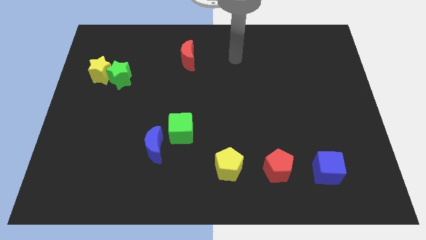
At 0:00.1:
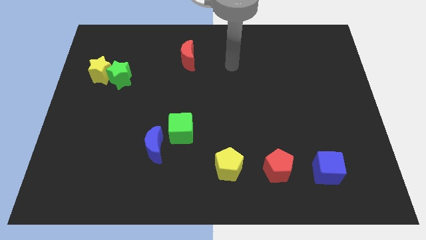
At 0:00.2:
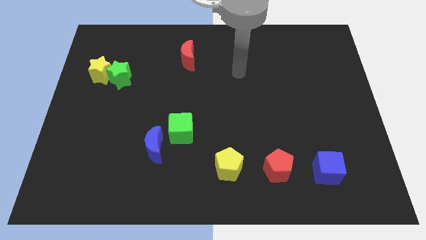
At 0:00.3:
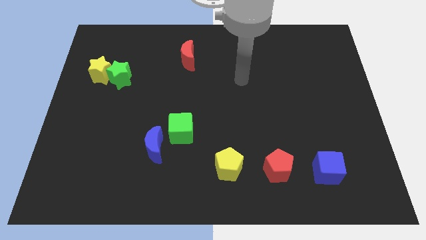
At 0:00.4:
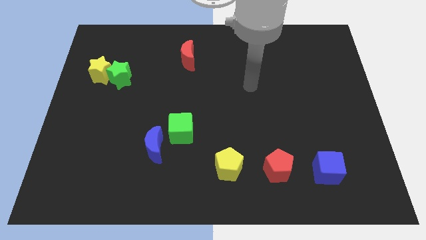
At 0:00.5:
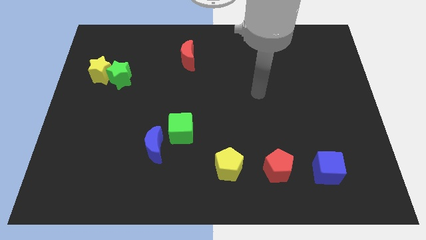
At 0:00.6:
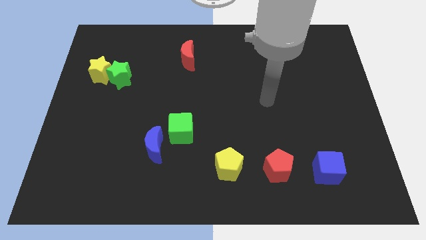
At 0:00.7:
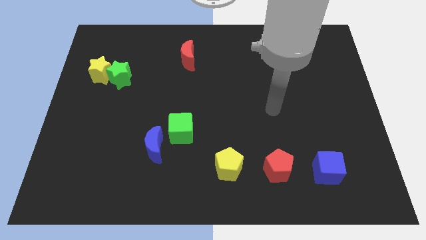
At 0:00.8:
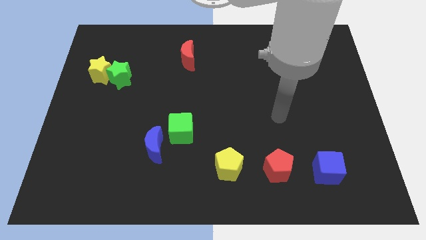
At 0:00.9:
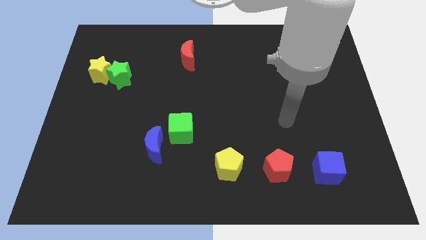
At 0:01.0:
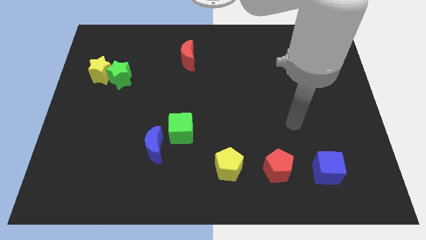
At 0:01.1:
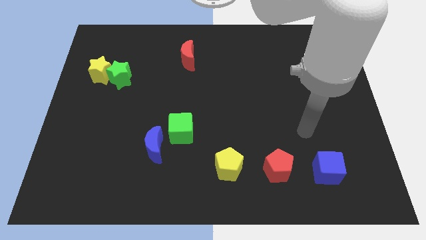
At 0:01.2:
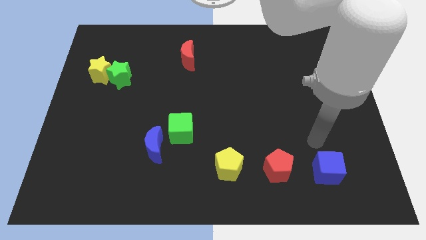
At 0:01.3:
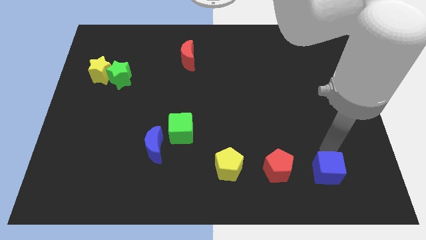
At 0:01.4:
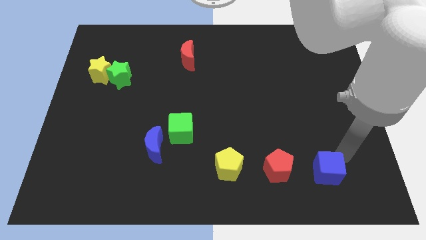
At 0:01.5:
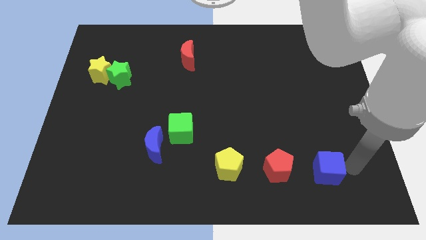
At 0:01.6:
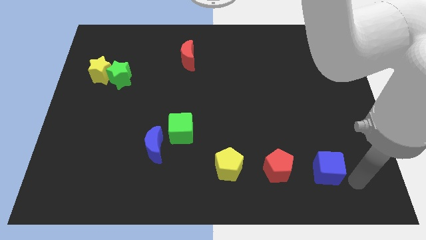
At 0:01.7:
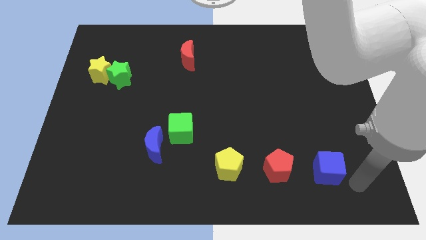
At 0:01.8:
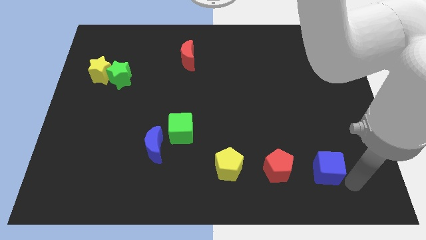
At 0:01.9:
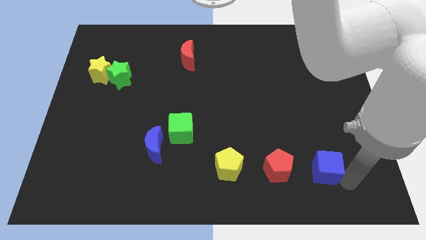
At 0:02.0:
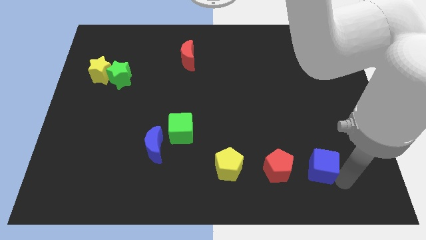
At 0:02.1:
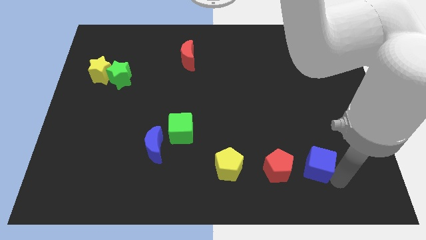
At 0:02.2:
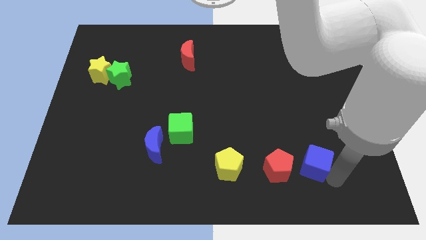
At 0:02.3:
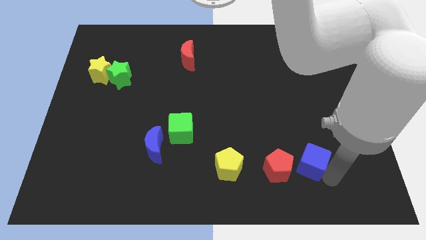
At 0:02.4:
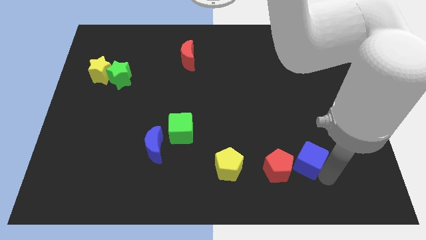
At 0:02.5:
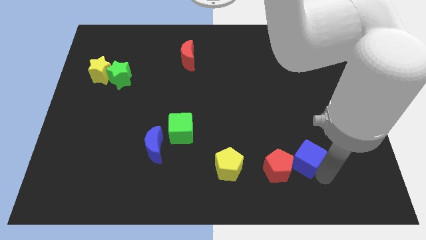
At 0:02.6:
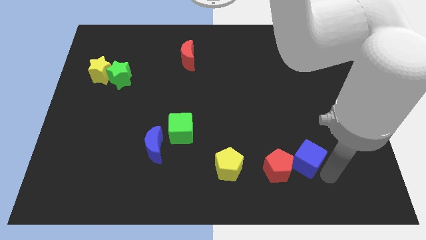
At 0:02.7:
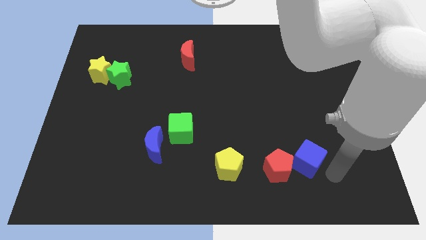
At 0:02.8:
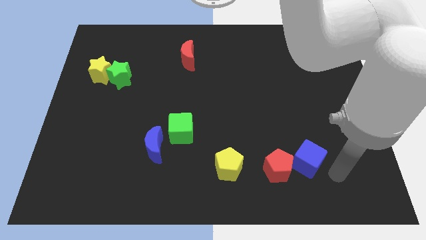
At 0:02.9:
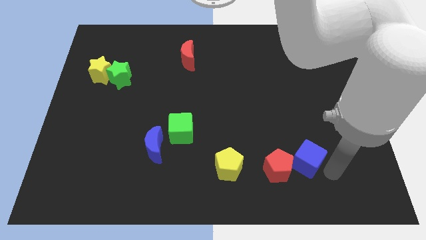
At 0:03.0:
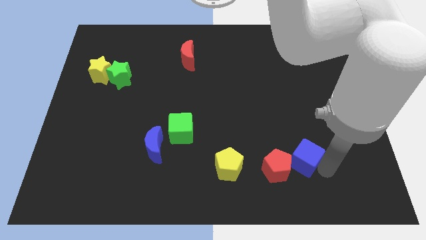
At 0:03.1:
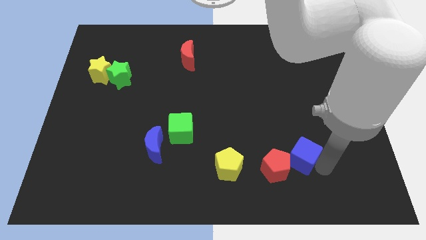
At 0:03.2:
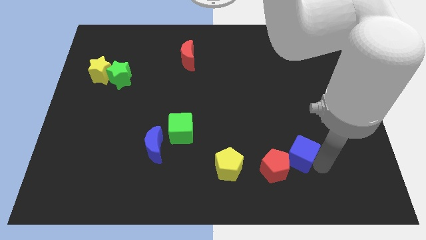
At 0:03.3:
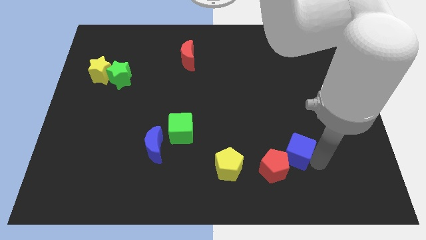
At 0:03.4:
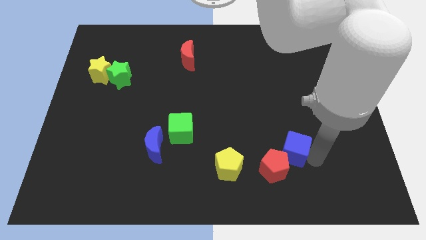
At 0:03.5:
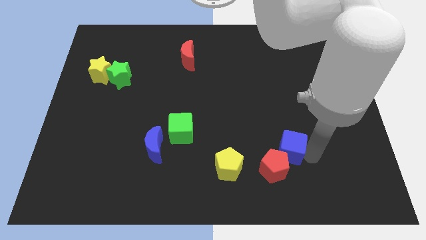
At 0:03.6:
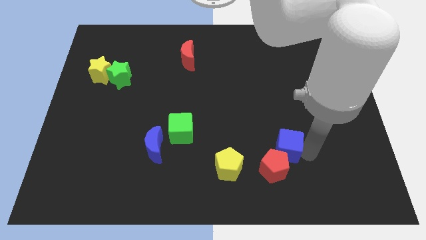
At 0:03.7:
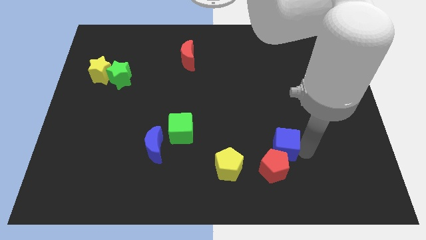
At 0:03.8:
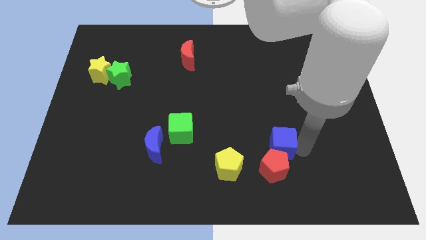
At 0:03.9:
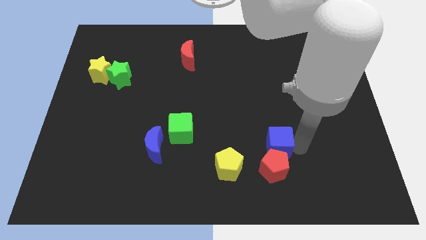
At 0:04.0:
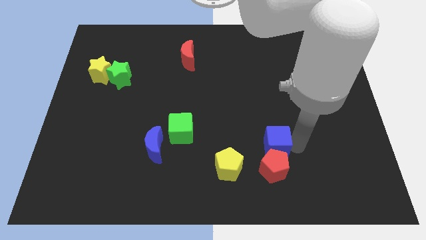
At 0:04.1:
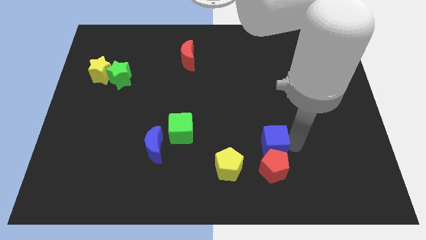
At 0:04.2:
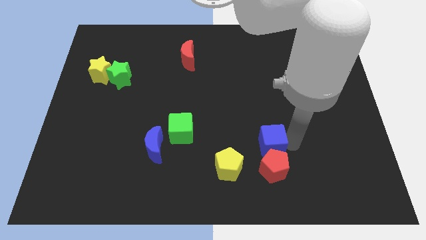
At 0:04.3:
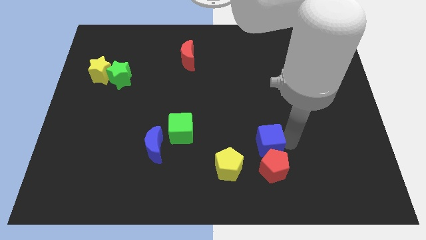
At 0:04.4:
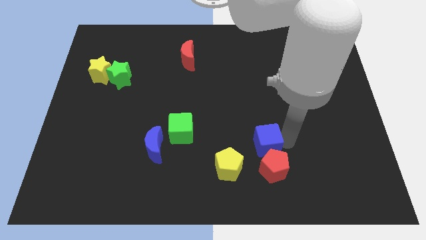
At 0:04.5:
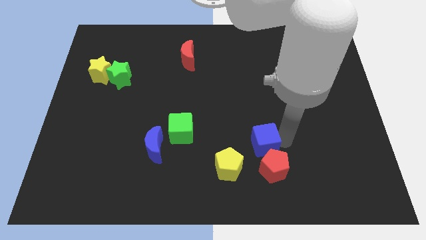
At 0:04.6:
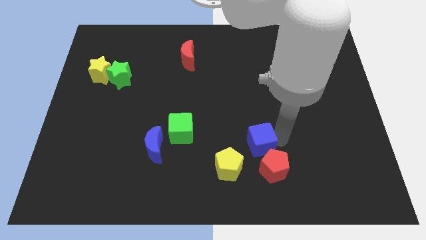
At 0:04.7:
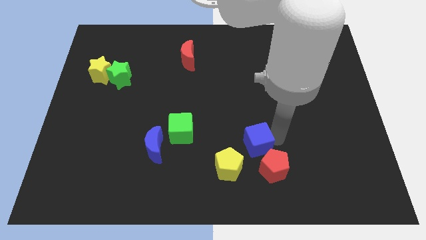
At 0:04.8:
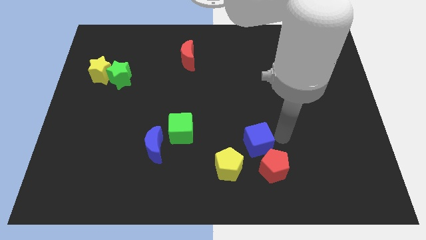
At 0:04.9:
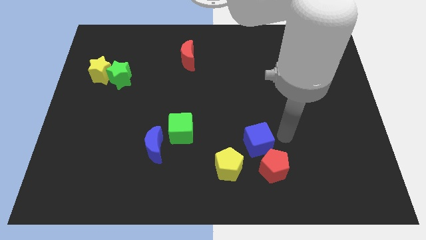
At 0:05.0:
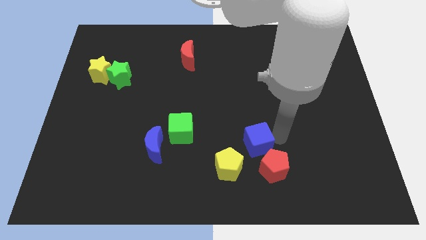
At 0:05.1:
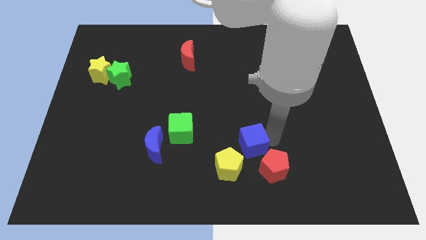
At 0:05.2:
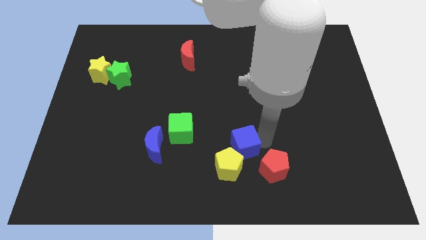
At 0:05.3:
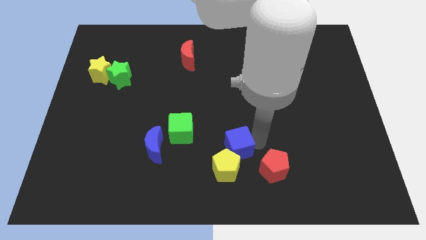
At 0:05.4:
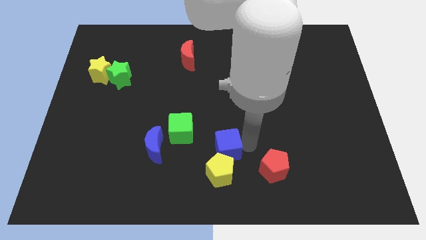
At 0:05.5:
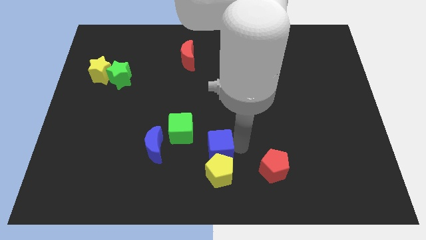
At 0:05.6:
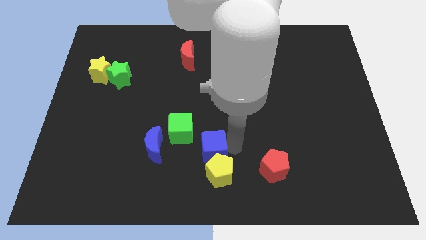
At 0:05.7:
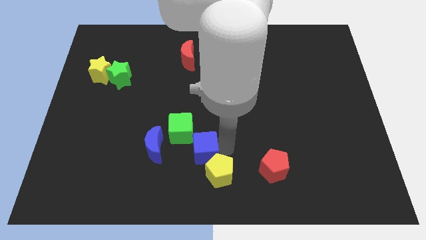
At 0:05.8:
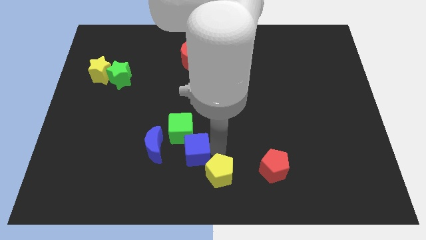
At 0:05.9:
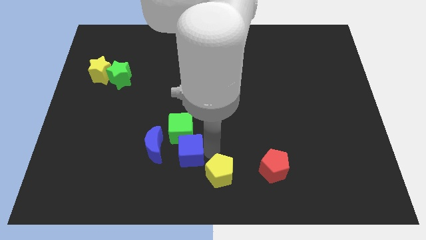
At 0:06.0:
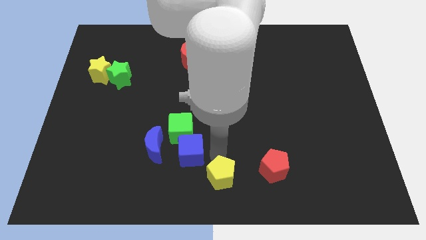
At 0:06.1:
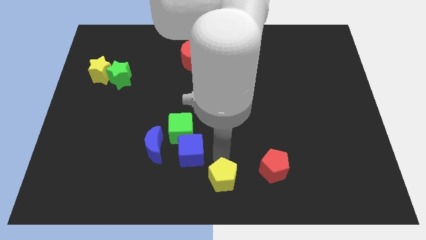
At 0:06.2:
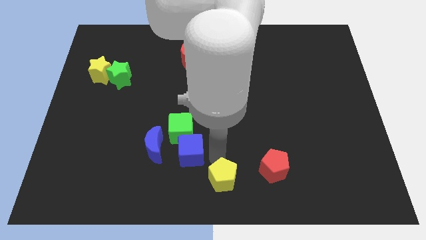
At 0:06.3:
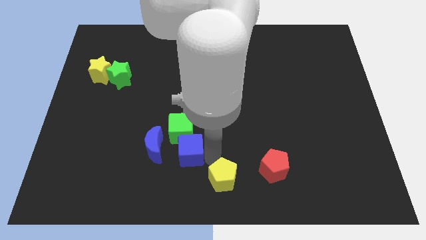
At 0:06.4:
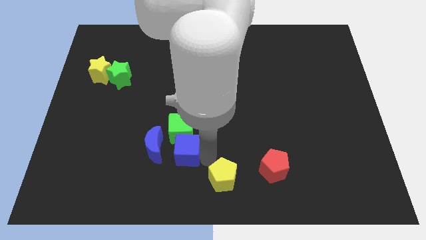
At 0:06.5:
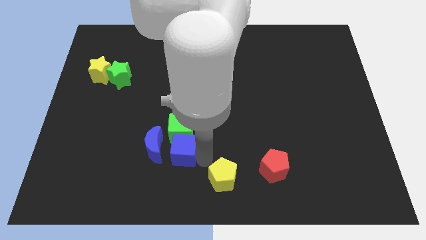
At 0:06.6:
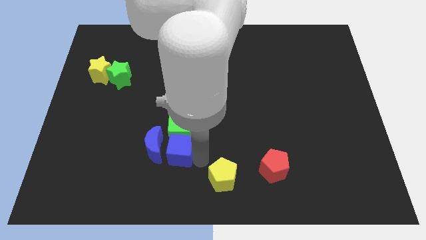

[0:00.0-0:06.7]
put the blue cube to the blue moon

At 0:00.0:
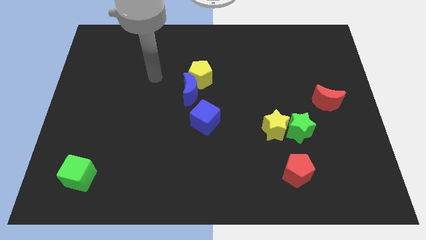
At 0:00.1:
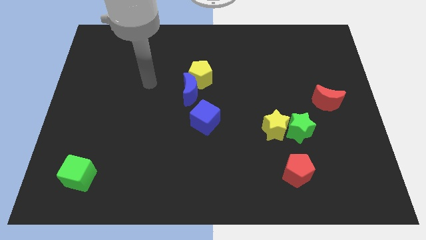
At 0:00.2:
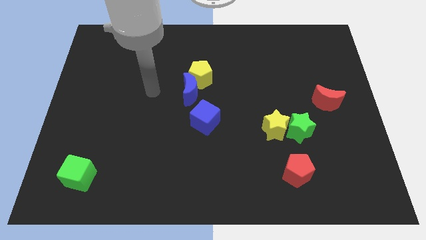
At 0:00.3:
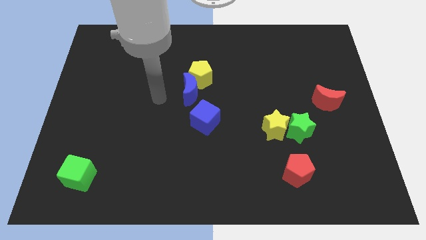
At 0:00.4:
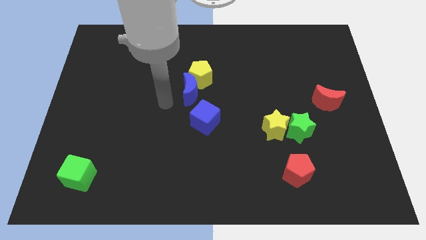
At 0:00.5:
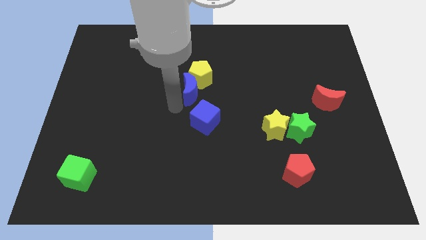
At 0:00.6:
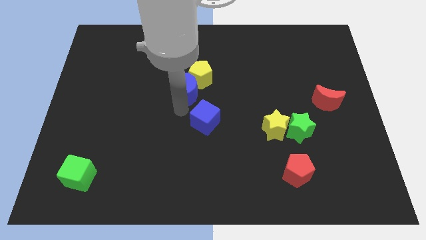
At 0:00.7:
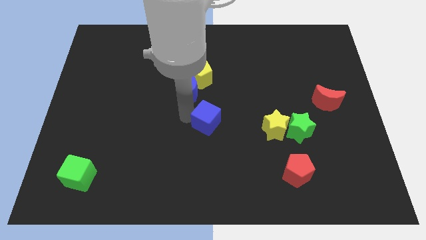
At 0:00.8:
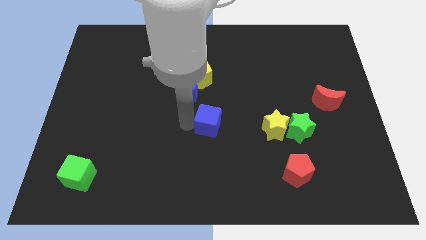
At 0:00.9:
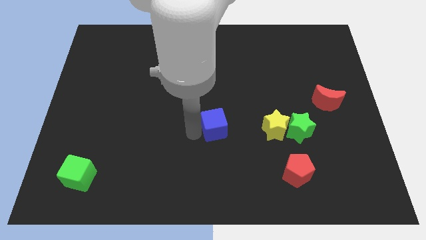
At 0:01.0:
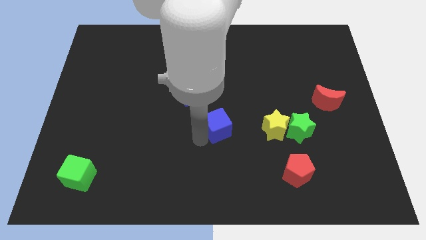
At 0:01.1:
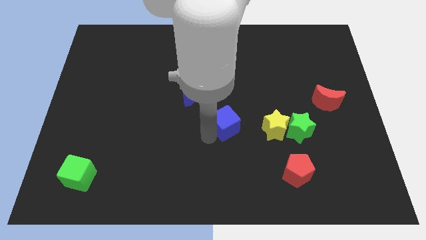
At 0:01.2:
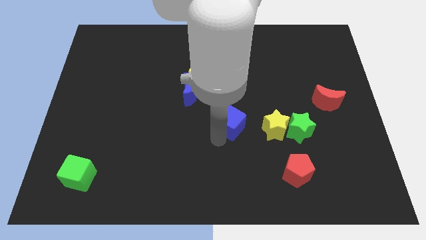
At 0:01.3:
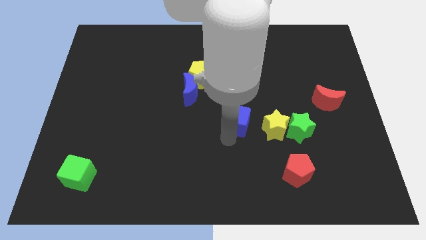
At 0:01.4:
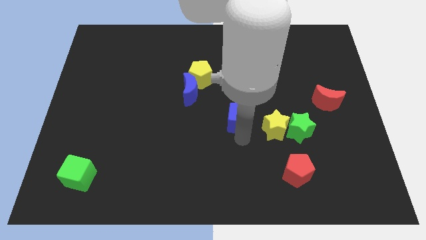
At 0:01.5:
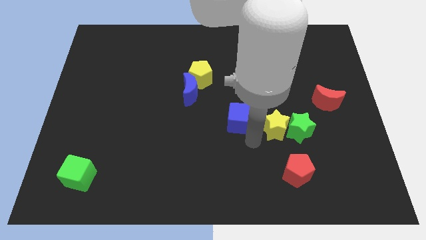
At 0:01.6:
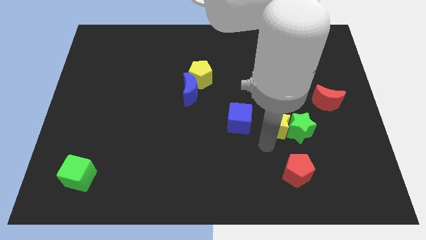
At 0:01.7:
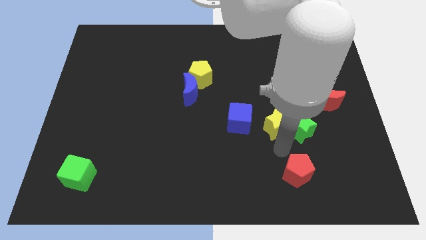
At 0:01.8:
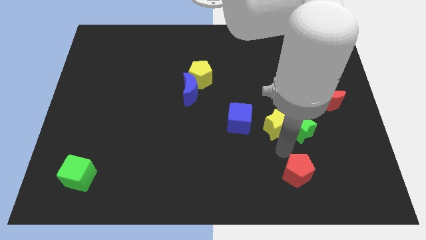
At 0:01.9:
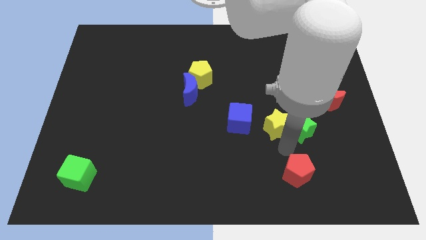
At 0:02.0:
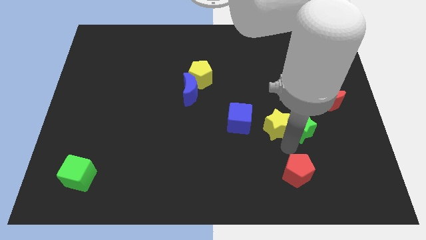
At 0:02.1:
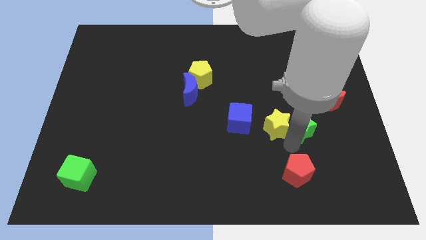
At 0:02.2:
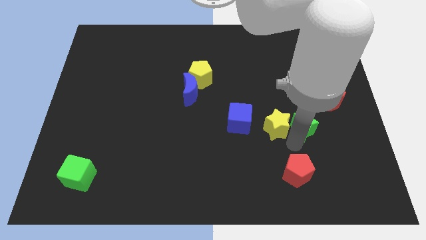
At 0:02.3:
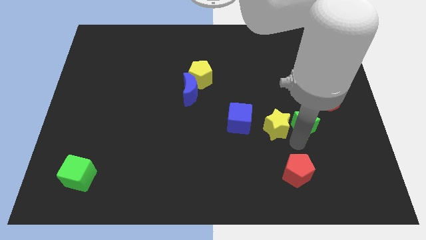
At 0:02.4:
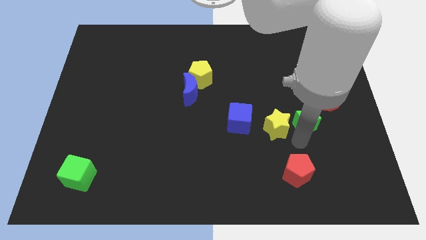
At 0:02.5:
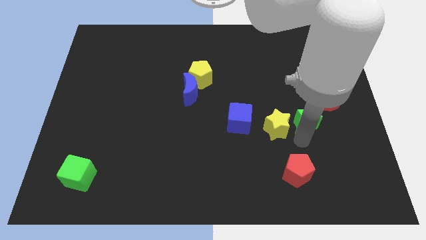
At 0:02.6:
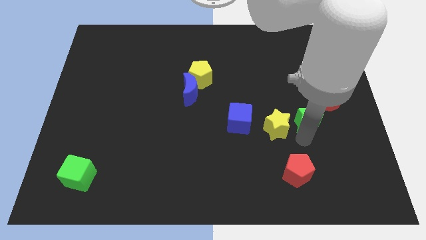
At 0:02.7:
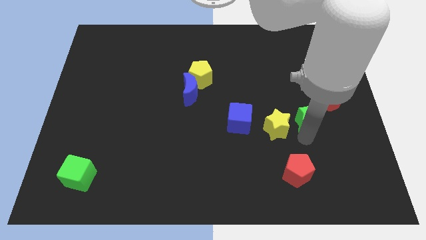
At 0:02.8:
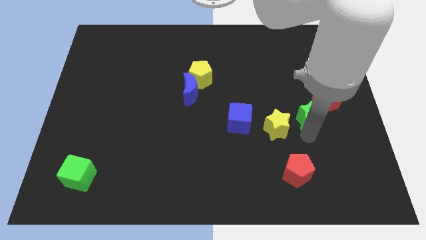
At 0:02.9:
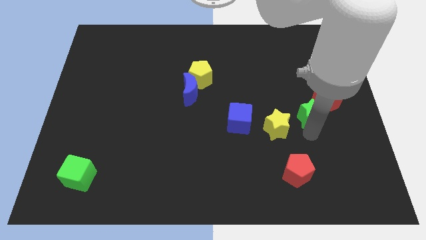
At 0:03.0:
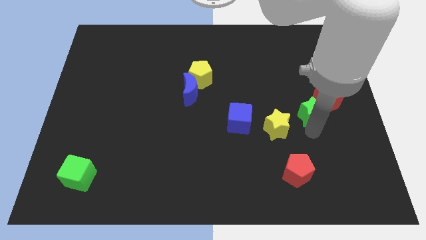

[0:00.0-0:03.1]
put the green star towards the red moon
